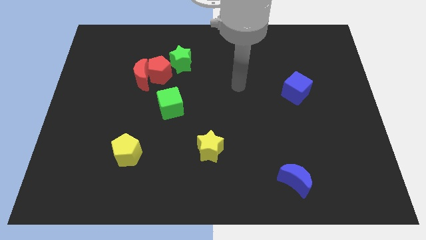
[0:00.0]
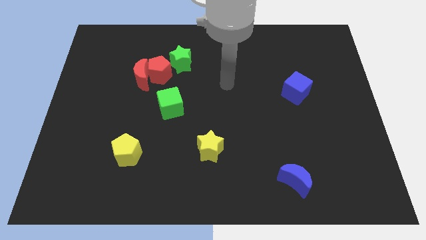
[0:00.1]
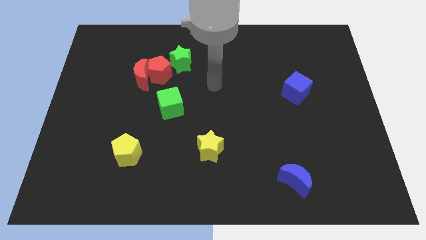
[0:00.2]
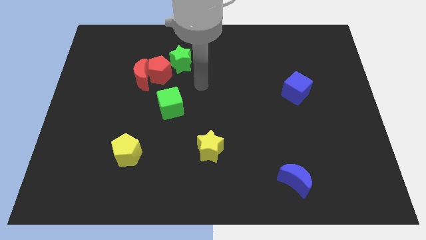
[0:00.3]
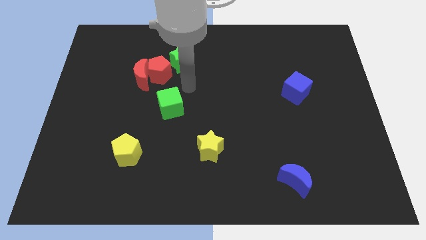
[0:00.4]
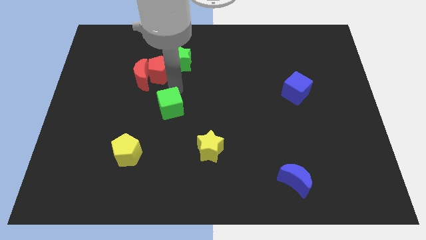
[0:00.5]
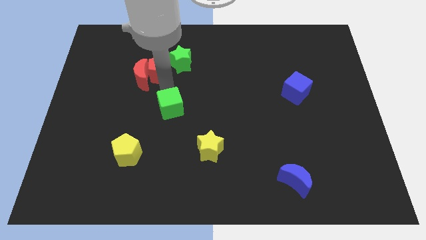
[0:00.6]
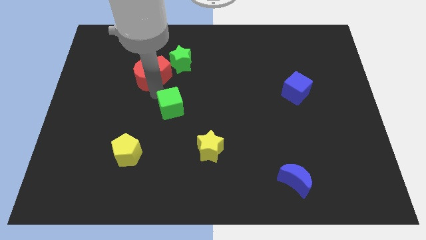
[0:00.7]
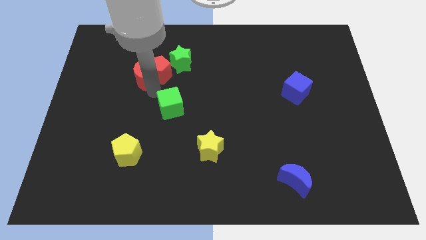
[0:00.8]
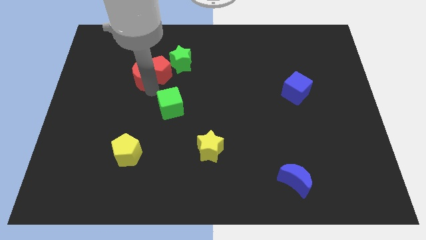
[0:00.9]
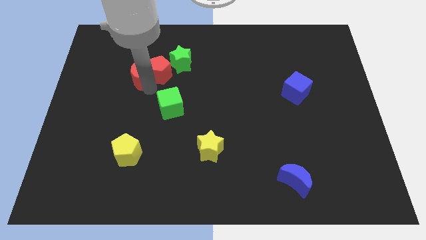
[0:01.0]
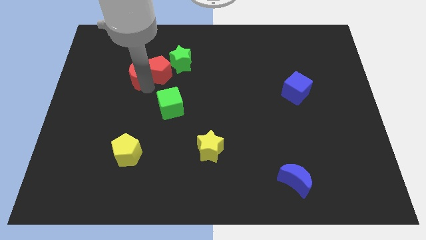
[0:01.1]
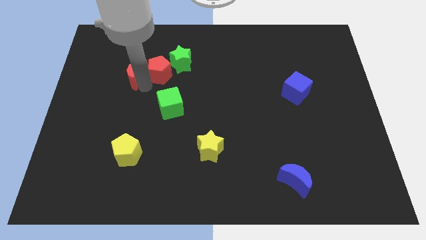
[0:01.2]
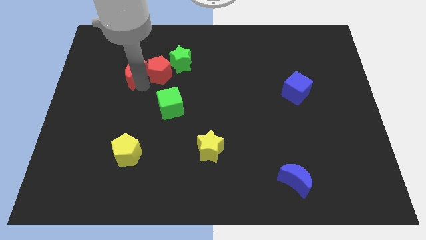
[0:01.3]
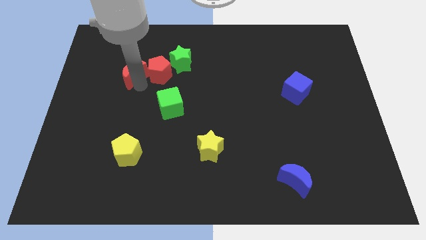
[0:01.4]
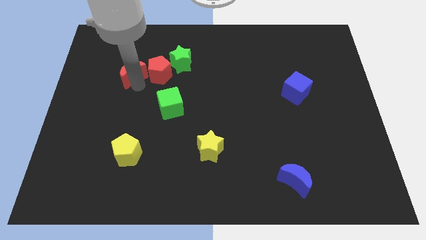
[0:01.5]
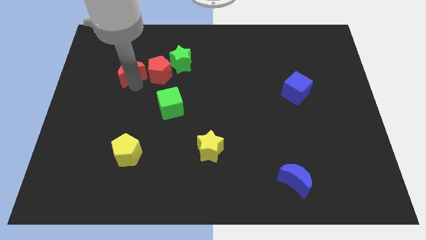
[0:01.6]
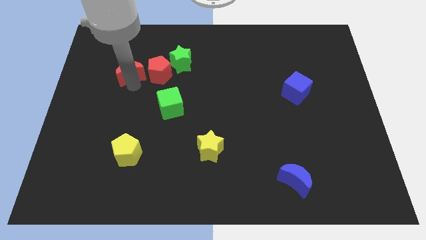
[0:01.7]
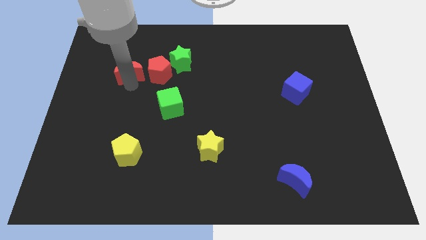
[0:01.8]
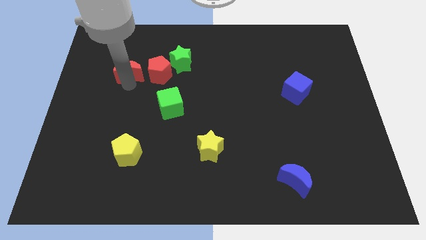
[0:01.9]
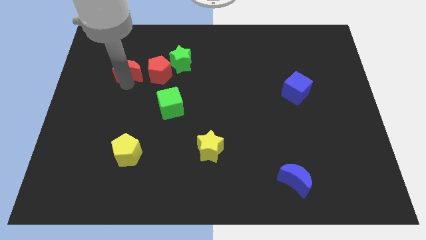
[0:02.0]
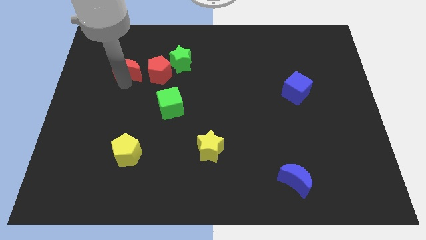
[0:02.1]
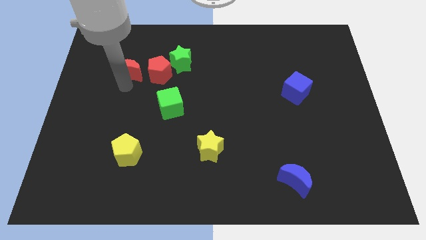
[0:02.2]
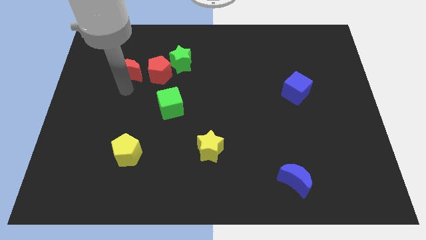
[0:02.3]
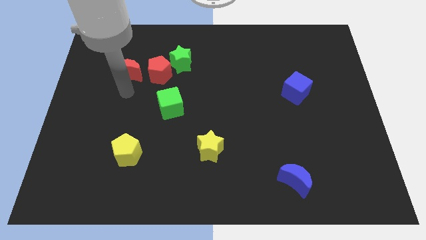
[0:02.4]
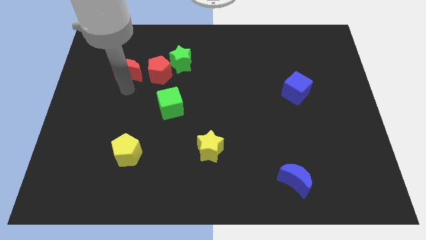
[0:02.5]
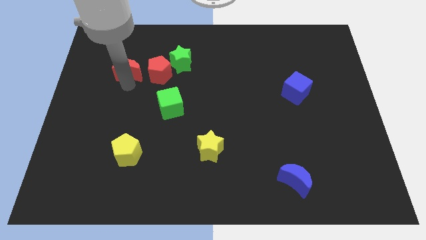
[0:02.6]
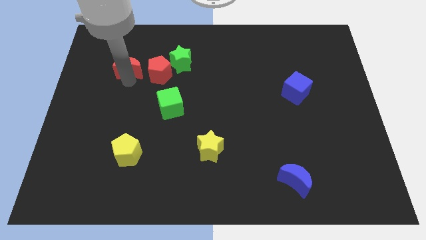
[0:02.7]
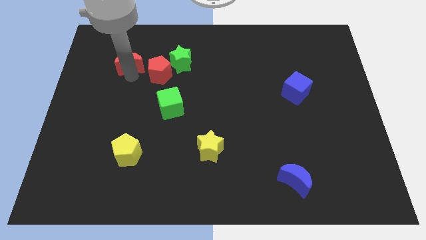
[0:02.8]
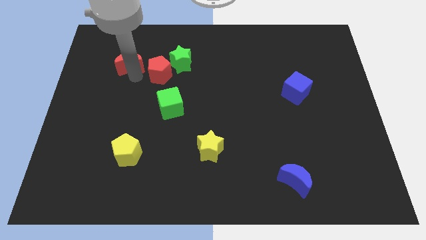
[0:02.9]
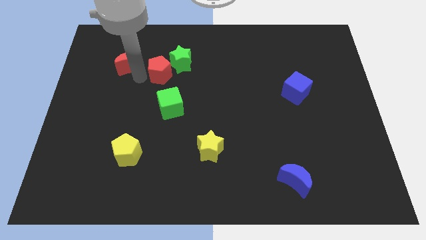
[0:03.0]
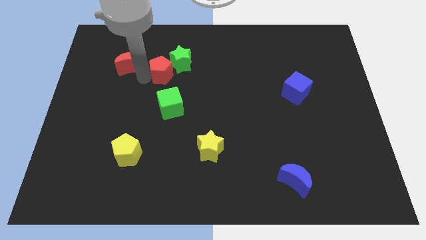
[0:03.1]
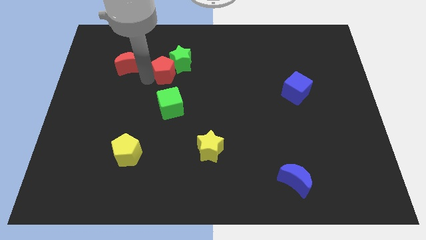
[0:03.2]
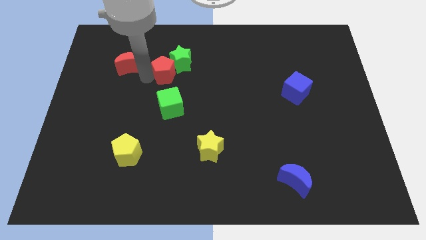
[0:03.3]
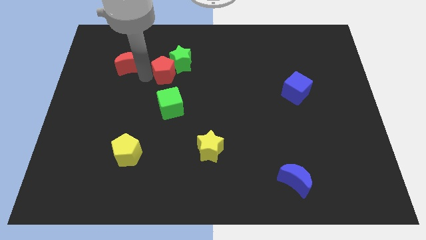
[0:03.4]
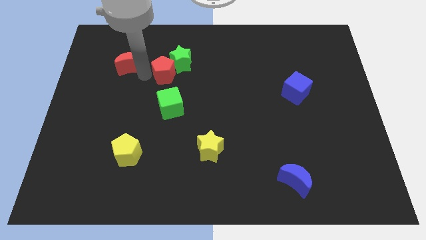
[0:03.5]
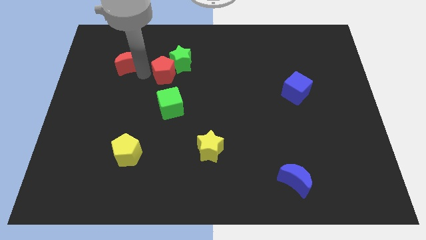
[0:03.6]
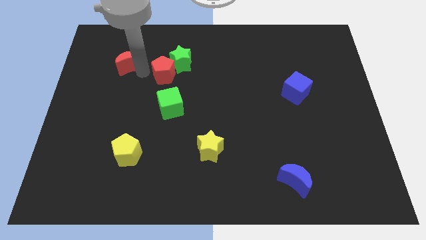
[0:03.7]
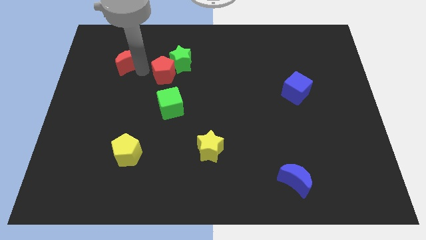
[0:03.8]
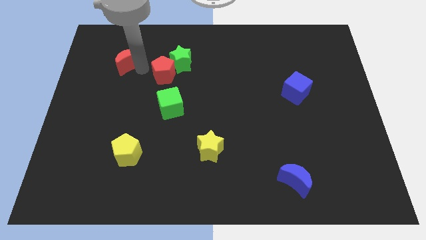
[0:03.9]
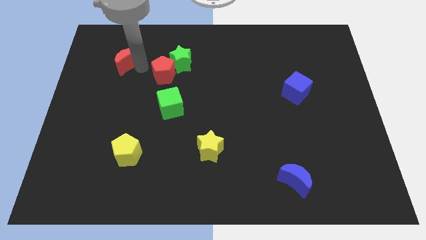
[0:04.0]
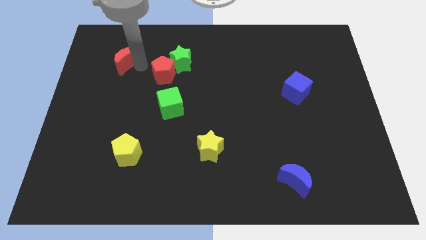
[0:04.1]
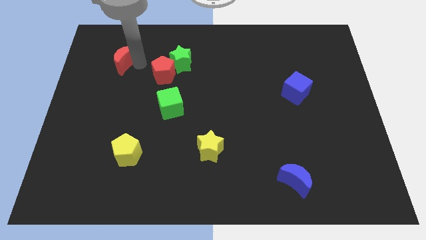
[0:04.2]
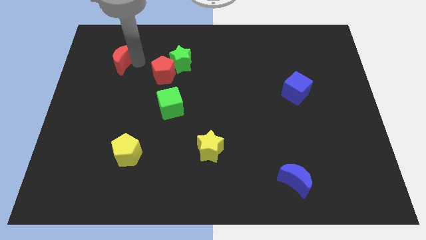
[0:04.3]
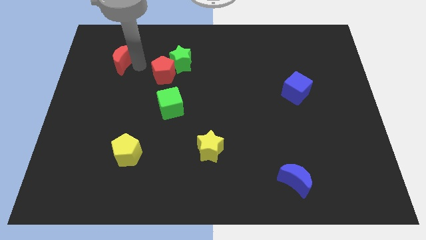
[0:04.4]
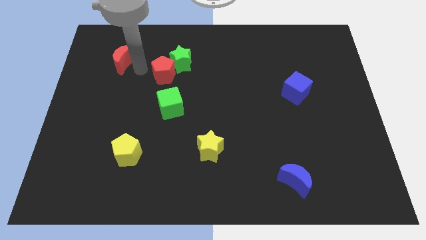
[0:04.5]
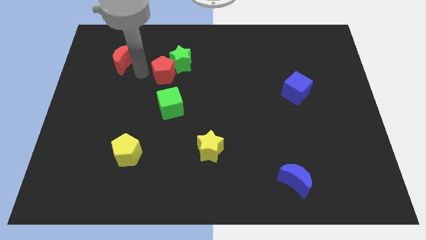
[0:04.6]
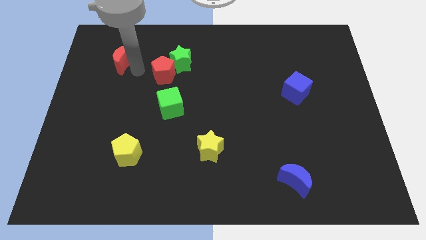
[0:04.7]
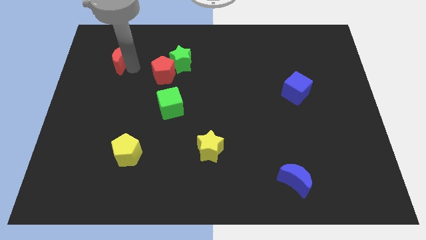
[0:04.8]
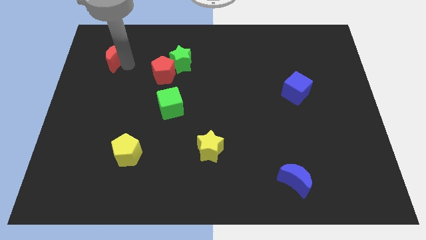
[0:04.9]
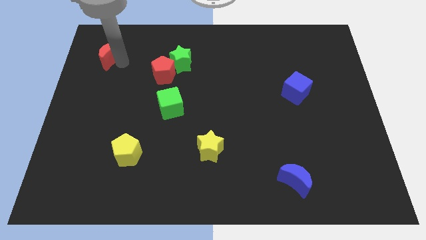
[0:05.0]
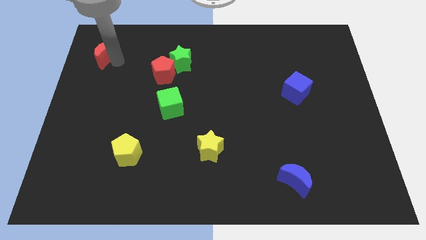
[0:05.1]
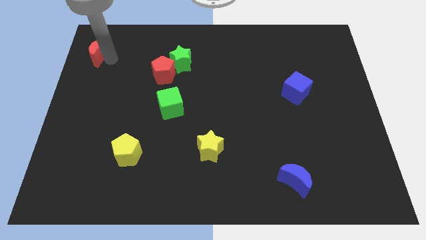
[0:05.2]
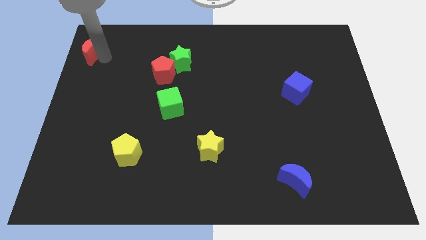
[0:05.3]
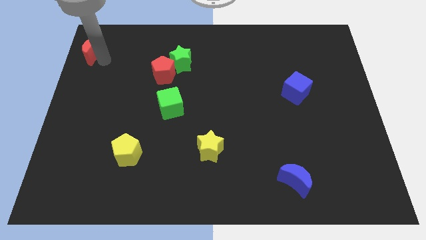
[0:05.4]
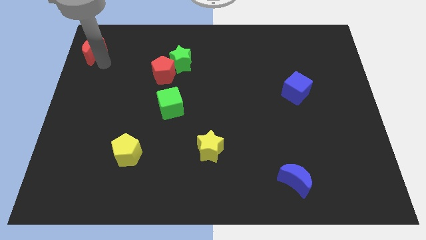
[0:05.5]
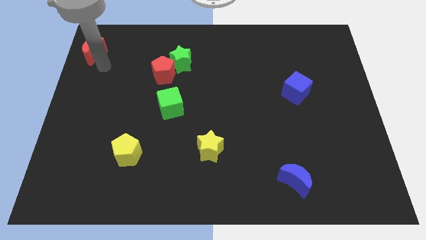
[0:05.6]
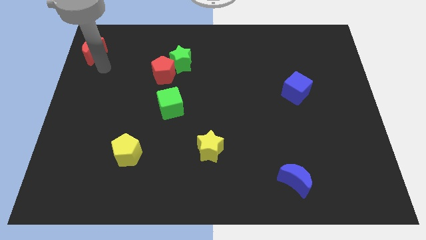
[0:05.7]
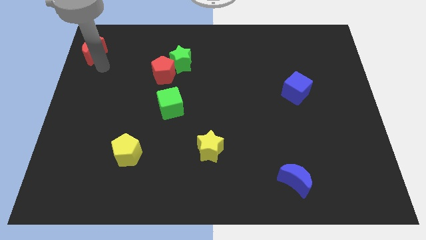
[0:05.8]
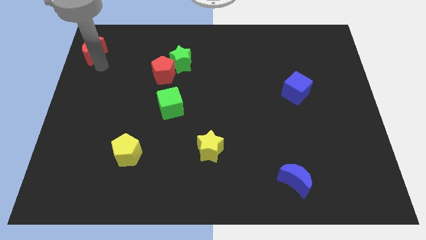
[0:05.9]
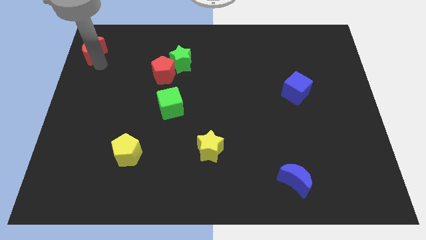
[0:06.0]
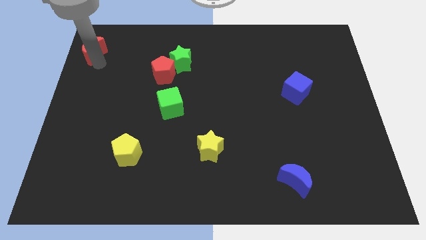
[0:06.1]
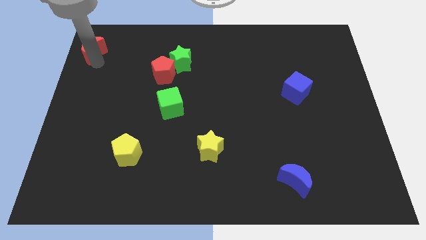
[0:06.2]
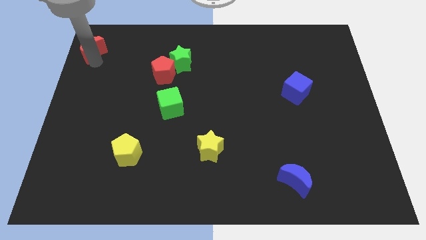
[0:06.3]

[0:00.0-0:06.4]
slide the red moon to the top left corner

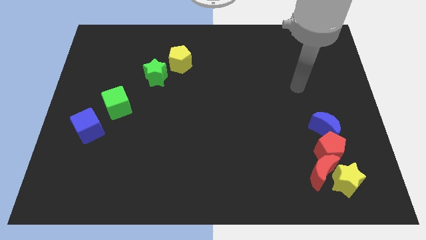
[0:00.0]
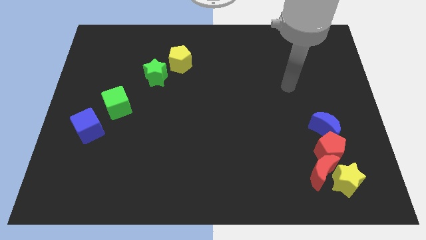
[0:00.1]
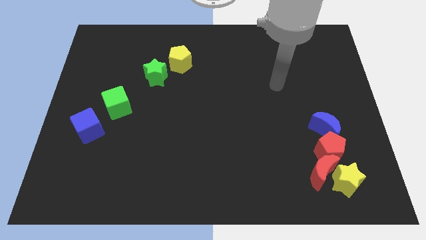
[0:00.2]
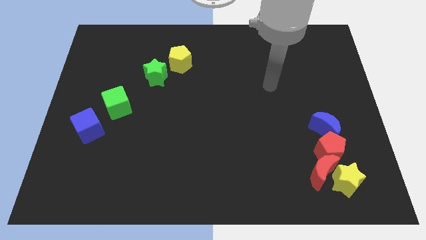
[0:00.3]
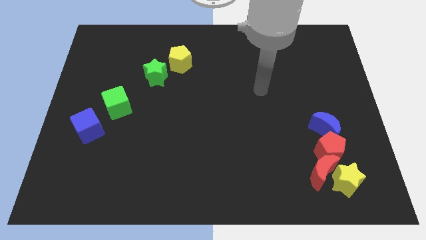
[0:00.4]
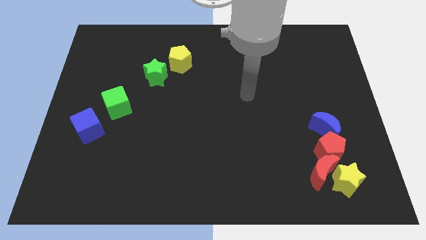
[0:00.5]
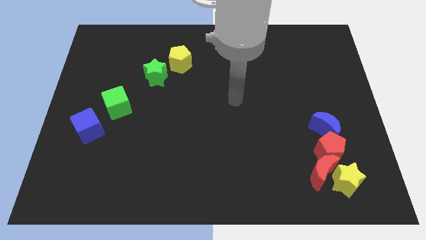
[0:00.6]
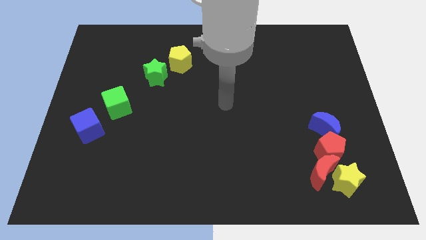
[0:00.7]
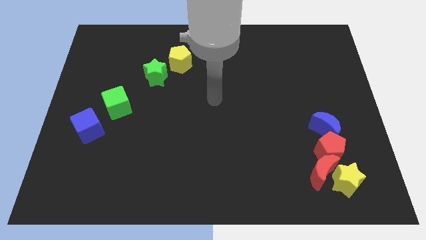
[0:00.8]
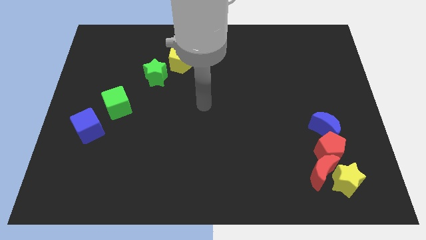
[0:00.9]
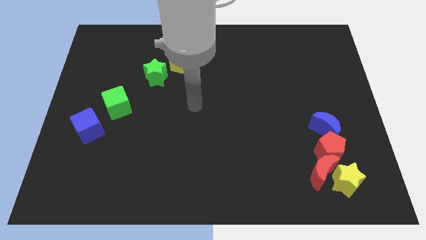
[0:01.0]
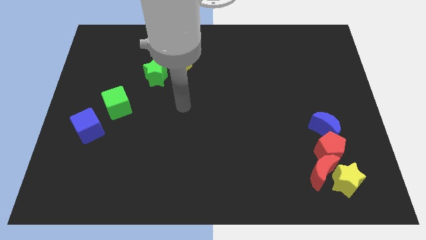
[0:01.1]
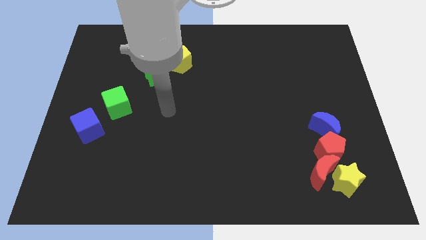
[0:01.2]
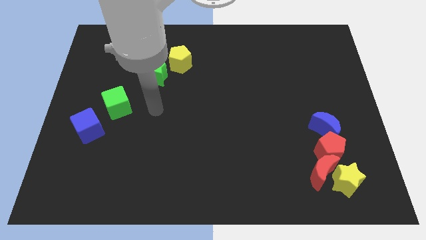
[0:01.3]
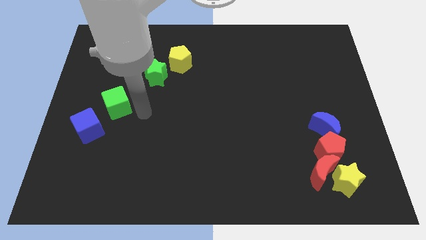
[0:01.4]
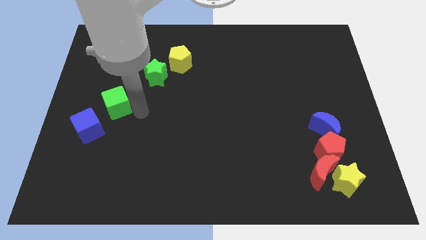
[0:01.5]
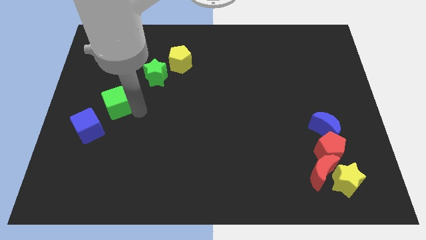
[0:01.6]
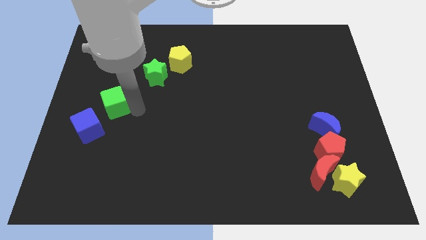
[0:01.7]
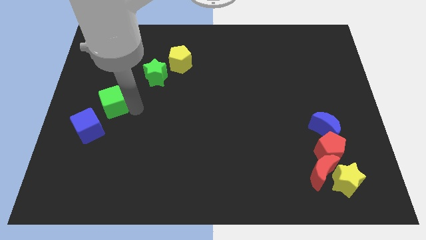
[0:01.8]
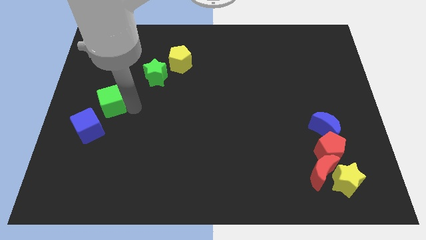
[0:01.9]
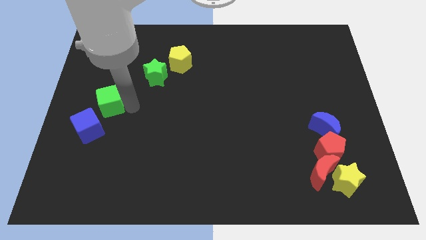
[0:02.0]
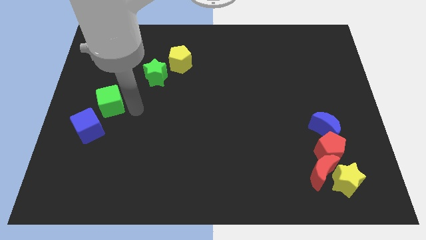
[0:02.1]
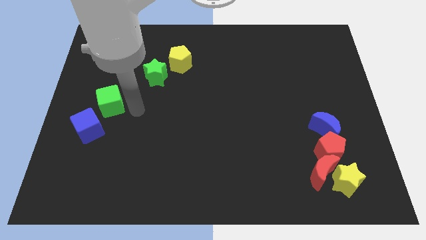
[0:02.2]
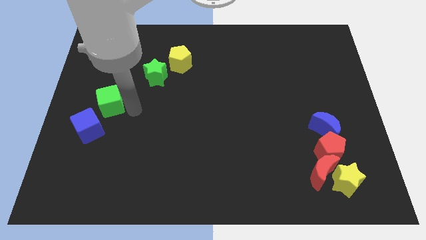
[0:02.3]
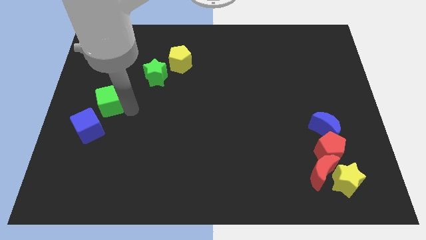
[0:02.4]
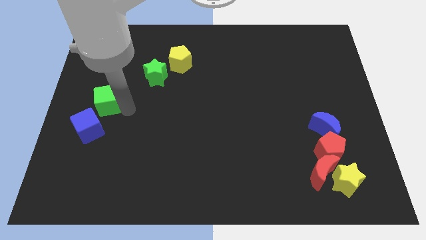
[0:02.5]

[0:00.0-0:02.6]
slide the green cube to the left side of the board
